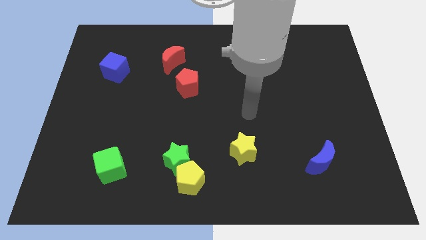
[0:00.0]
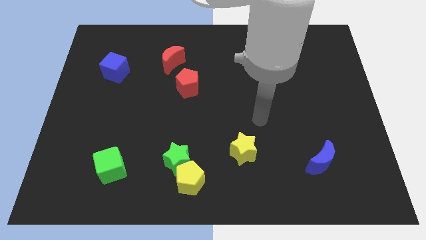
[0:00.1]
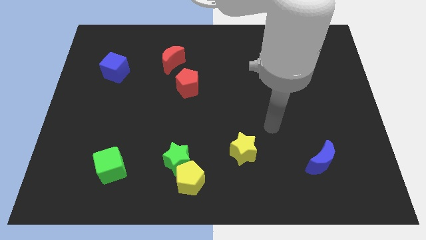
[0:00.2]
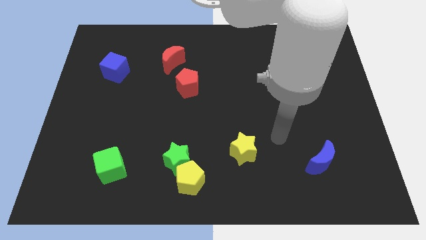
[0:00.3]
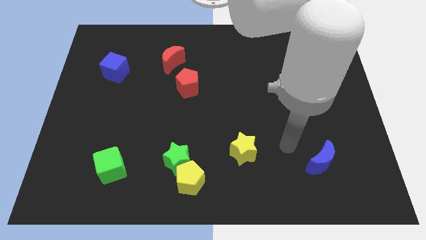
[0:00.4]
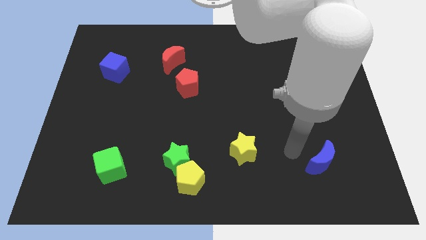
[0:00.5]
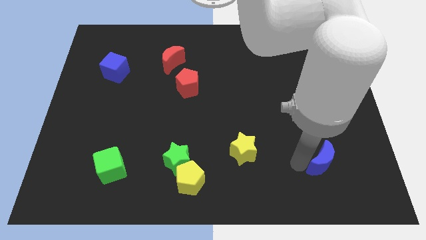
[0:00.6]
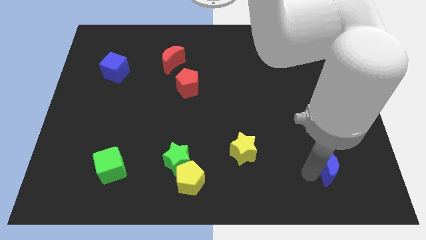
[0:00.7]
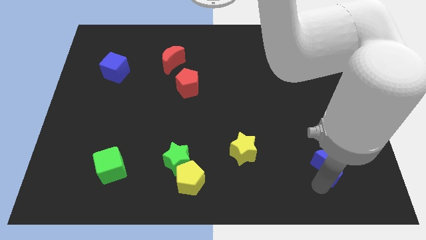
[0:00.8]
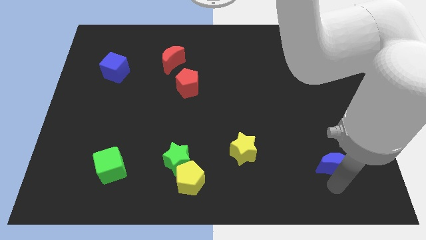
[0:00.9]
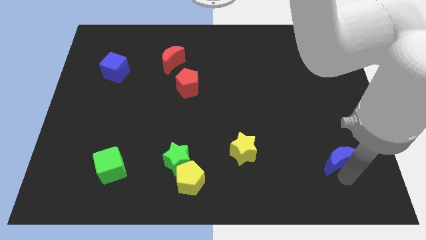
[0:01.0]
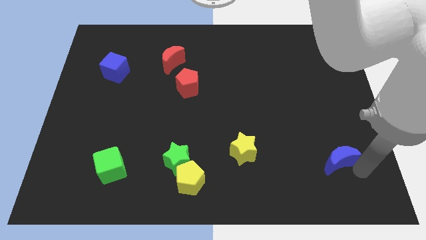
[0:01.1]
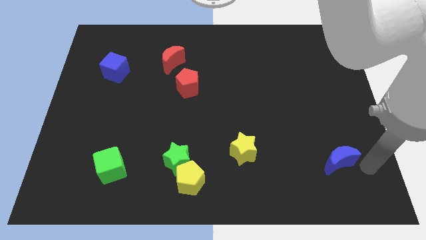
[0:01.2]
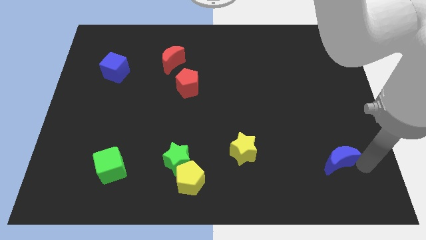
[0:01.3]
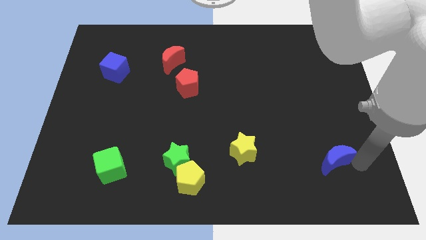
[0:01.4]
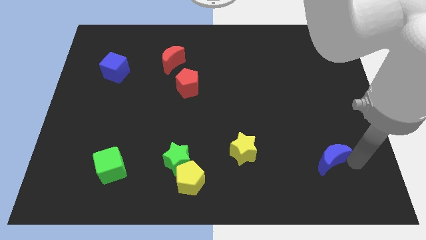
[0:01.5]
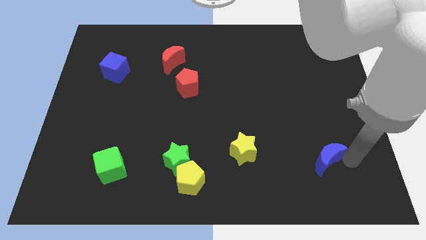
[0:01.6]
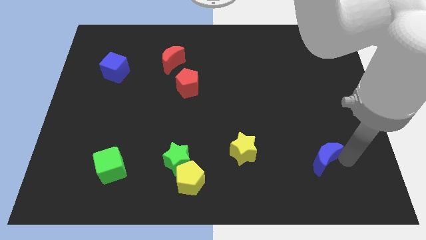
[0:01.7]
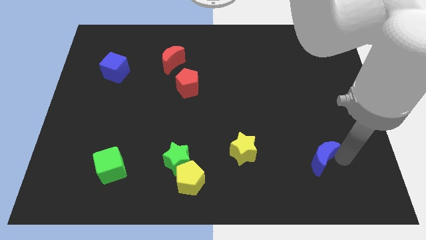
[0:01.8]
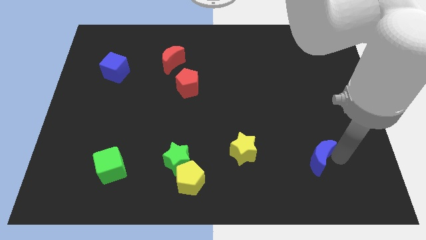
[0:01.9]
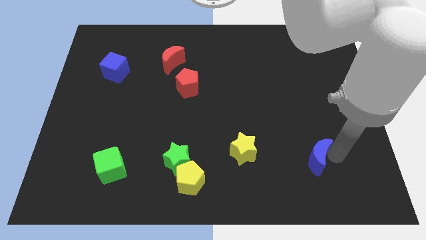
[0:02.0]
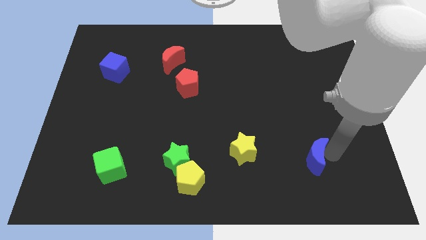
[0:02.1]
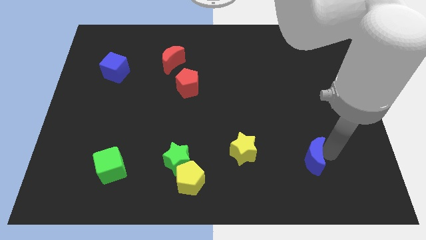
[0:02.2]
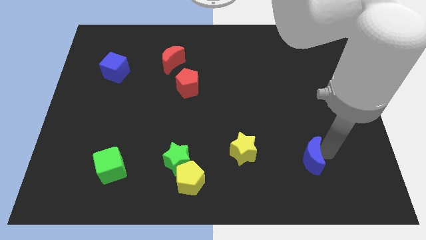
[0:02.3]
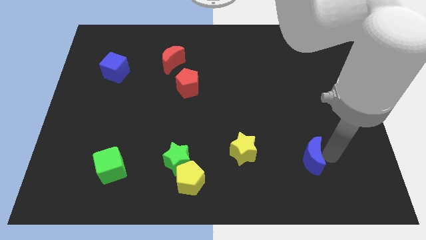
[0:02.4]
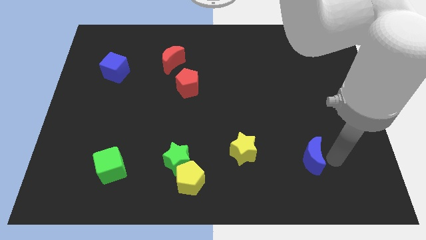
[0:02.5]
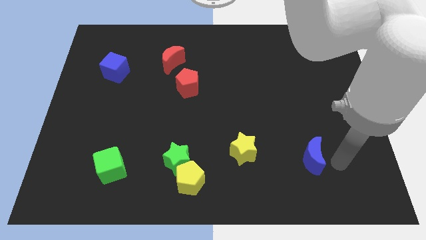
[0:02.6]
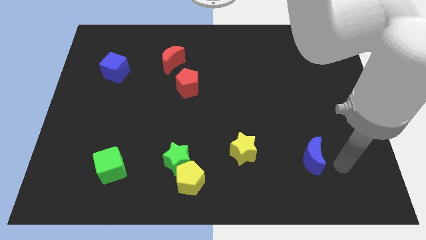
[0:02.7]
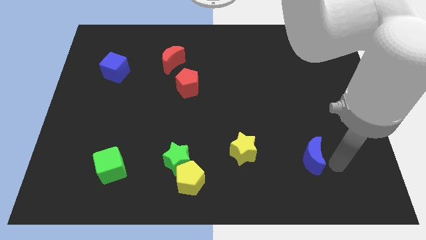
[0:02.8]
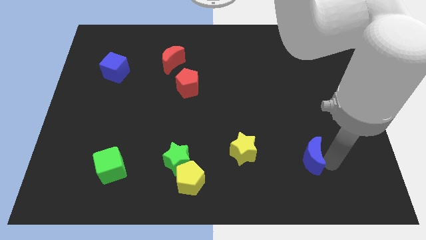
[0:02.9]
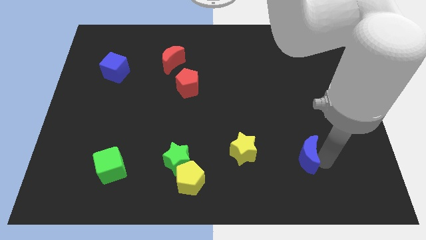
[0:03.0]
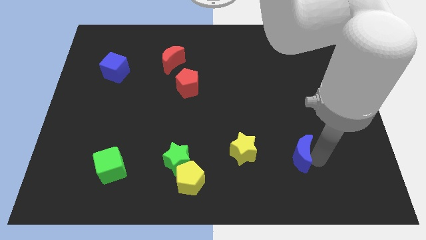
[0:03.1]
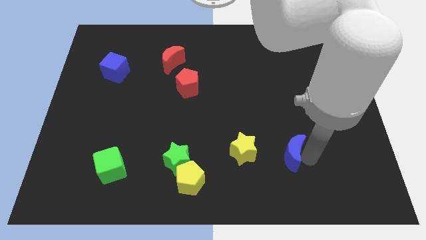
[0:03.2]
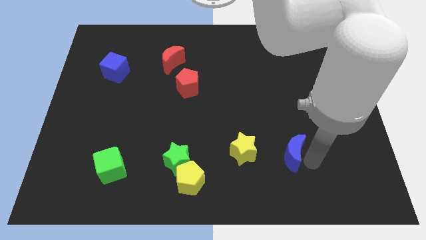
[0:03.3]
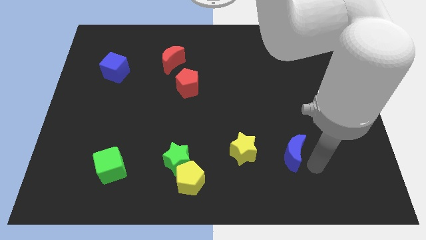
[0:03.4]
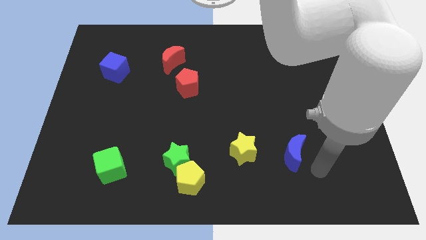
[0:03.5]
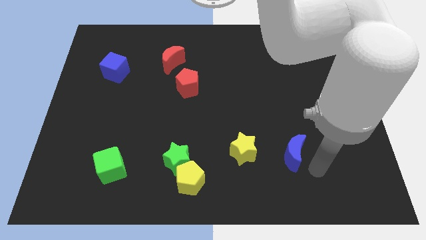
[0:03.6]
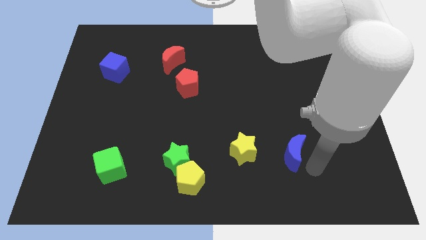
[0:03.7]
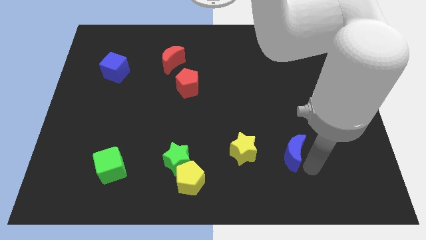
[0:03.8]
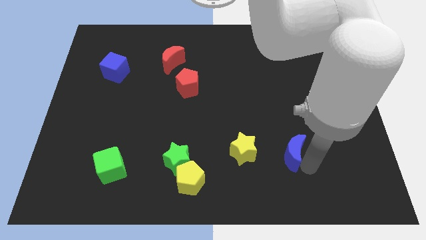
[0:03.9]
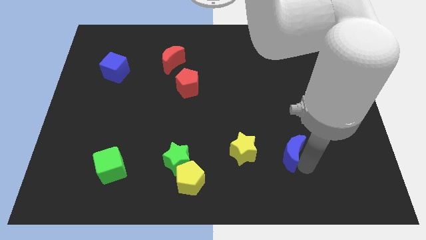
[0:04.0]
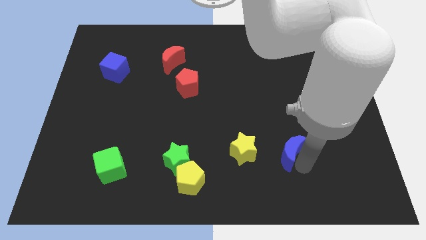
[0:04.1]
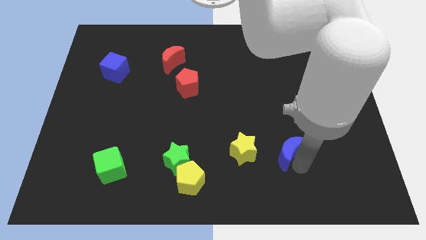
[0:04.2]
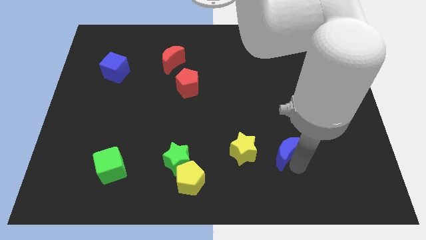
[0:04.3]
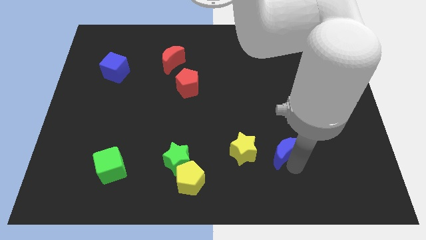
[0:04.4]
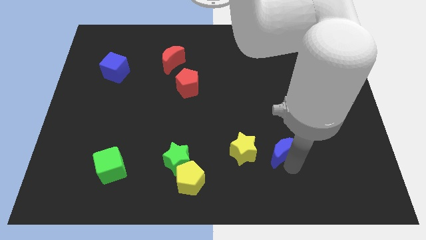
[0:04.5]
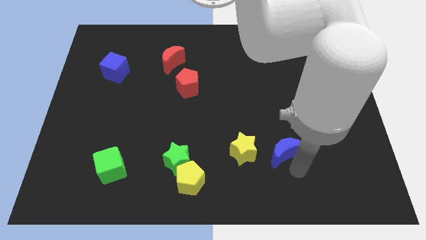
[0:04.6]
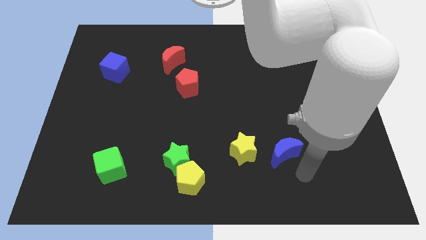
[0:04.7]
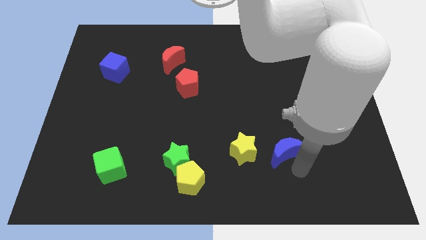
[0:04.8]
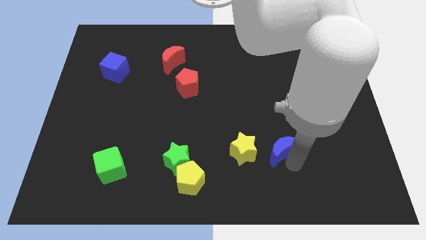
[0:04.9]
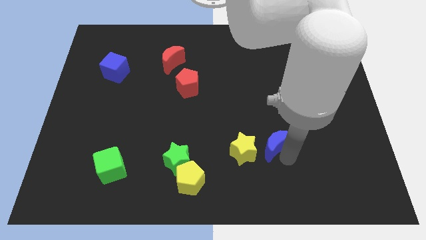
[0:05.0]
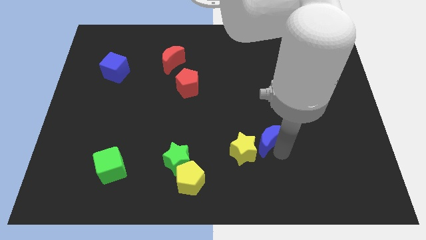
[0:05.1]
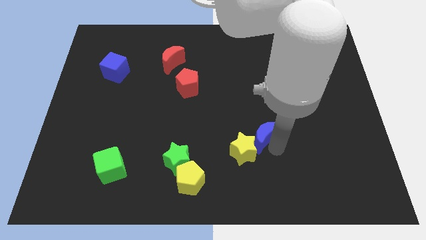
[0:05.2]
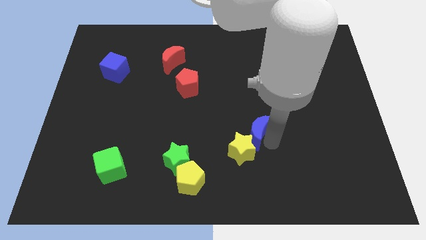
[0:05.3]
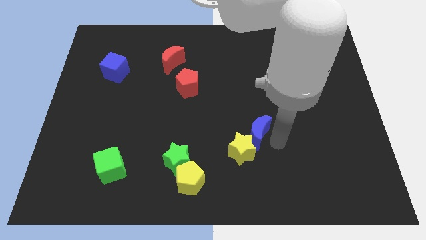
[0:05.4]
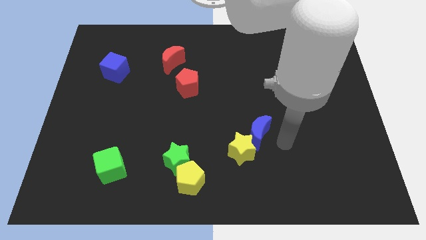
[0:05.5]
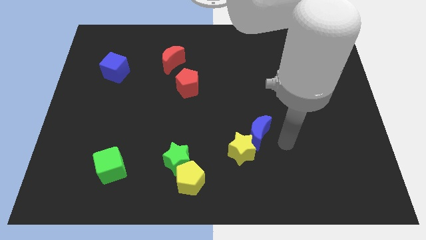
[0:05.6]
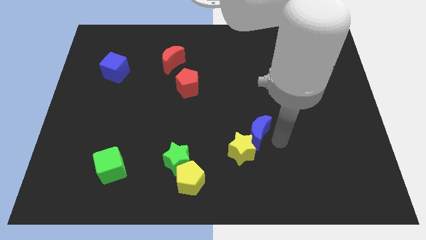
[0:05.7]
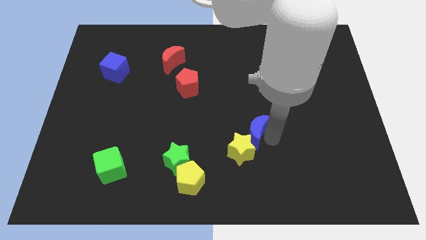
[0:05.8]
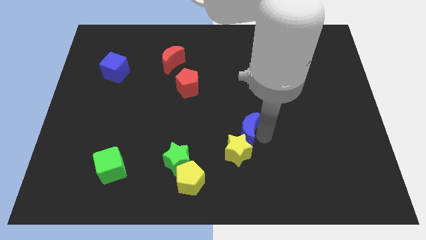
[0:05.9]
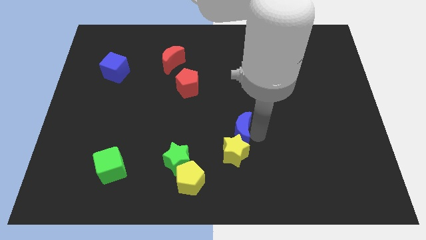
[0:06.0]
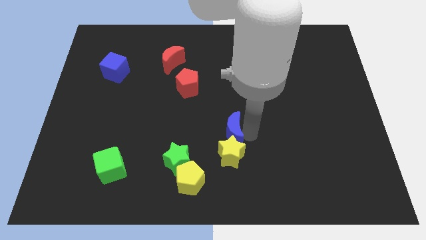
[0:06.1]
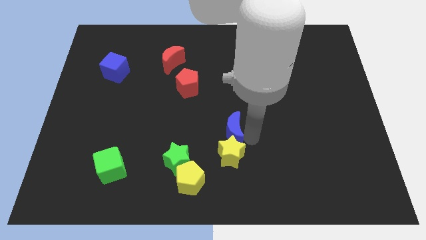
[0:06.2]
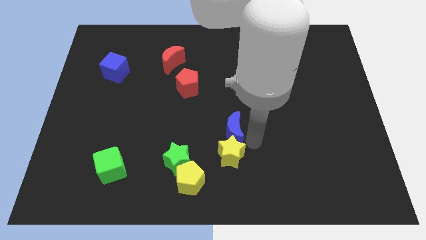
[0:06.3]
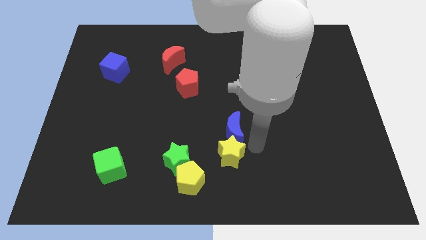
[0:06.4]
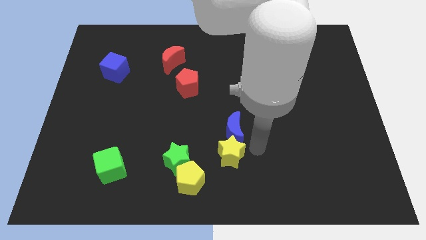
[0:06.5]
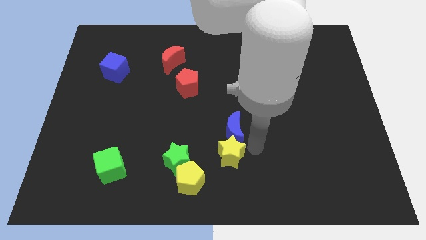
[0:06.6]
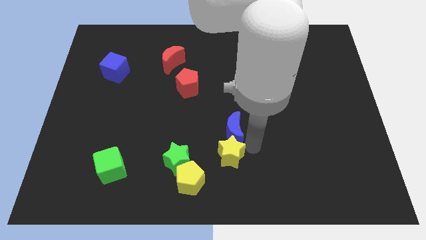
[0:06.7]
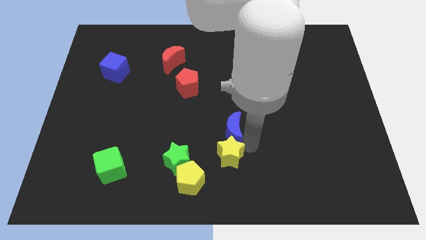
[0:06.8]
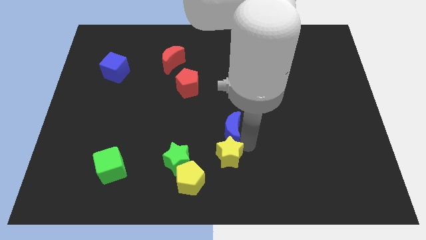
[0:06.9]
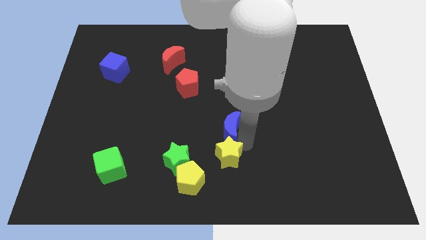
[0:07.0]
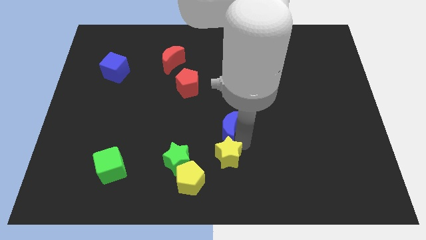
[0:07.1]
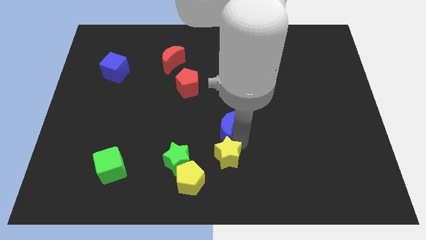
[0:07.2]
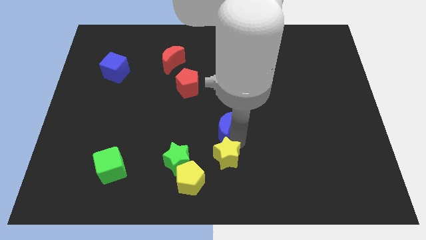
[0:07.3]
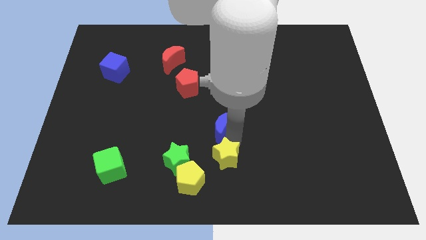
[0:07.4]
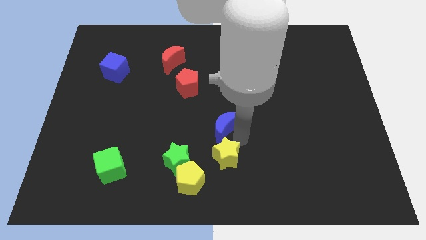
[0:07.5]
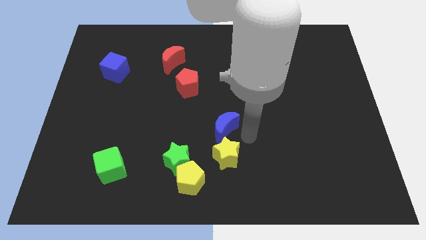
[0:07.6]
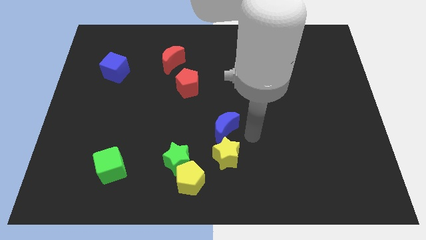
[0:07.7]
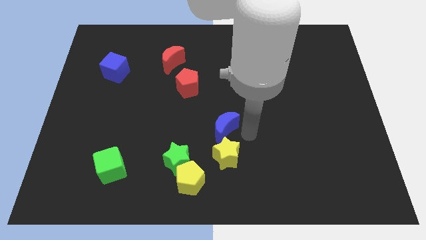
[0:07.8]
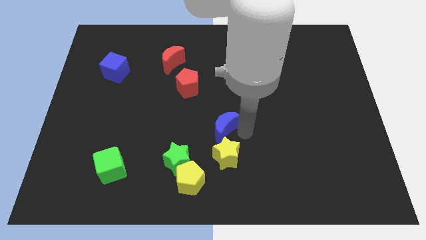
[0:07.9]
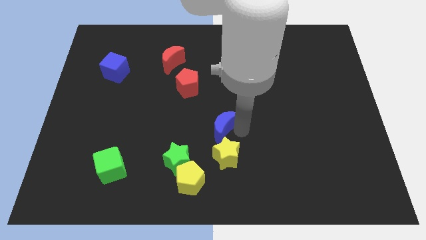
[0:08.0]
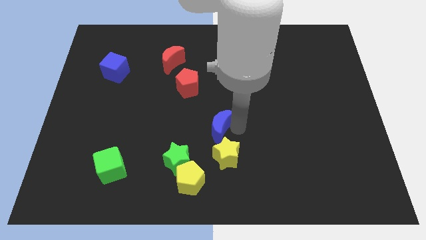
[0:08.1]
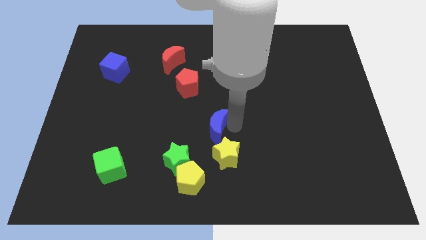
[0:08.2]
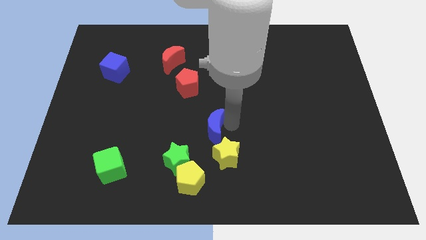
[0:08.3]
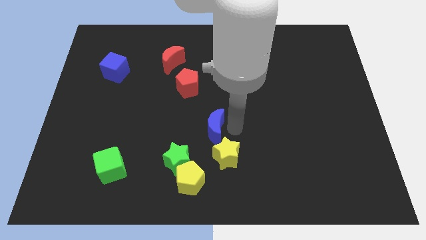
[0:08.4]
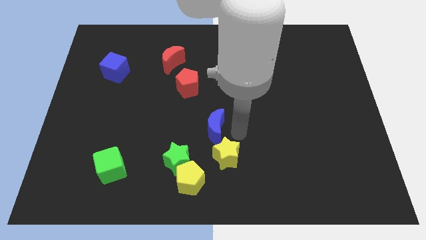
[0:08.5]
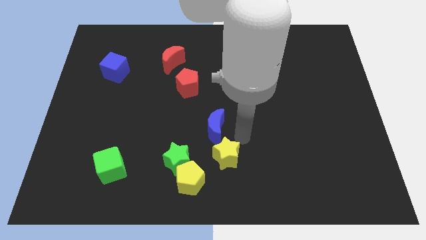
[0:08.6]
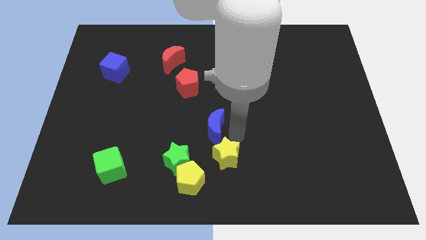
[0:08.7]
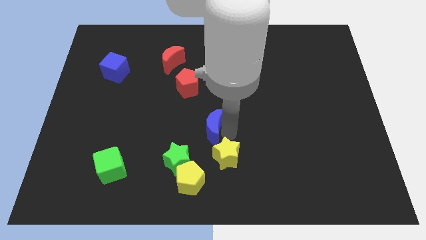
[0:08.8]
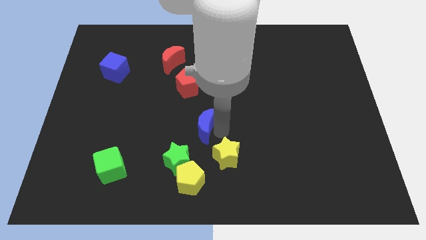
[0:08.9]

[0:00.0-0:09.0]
move the blue moon below the red pentagon
